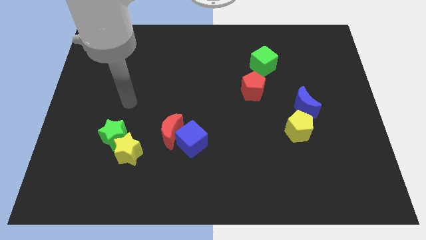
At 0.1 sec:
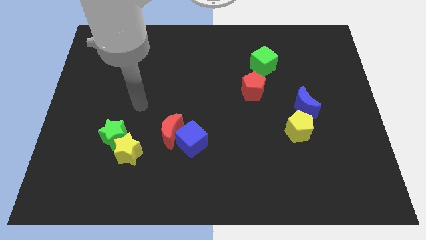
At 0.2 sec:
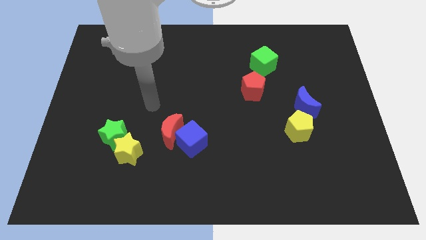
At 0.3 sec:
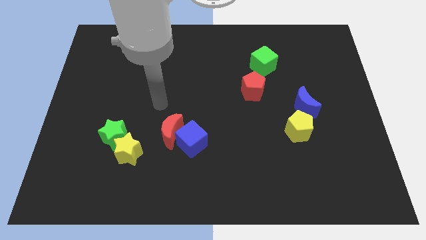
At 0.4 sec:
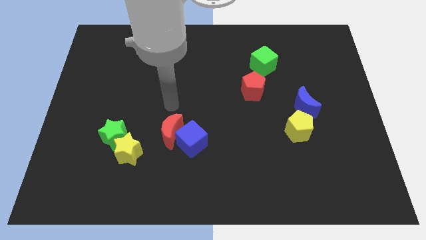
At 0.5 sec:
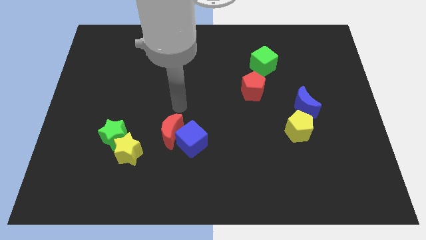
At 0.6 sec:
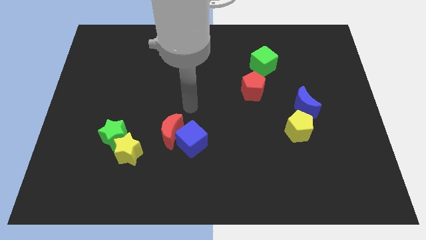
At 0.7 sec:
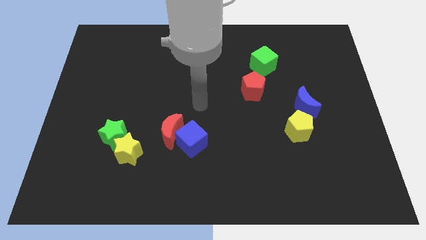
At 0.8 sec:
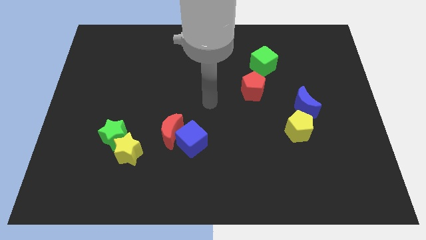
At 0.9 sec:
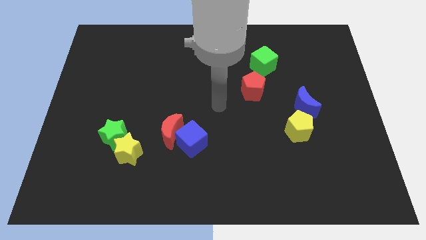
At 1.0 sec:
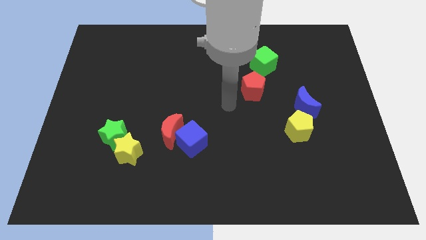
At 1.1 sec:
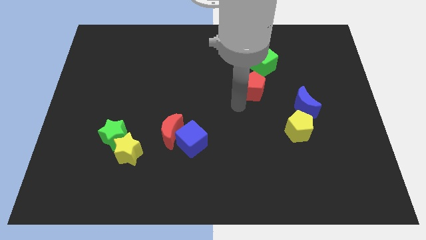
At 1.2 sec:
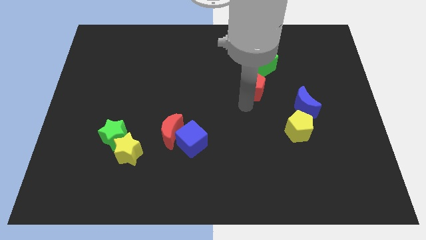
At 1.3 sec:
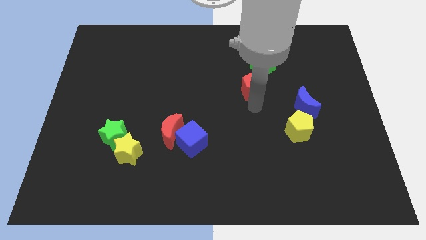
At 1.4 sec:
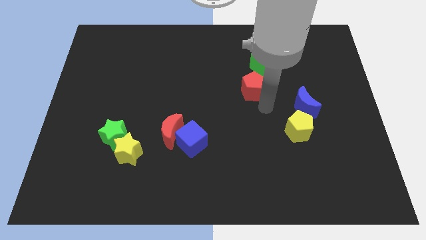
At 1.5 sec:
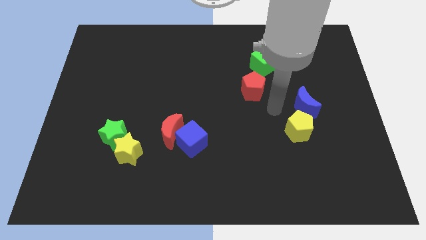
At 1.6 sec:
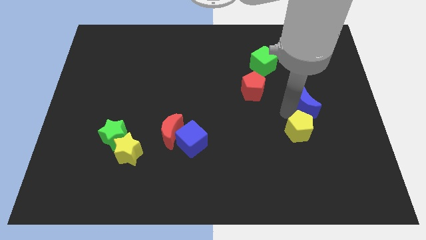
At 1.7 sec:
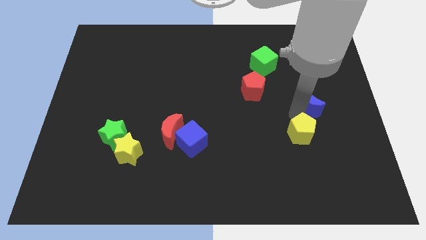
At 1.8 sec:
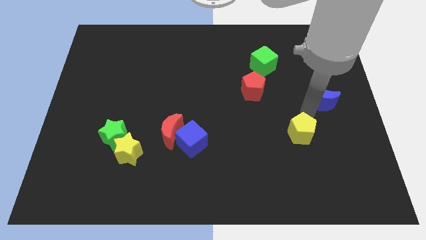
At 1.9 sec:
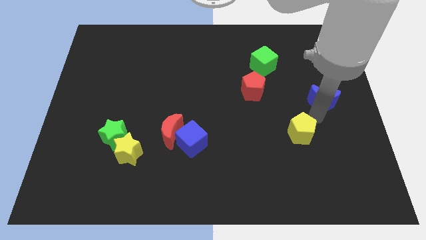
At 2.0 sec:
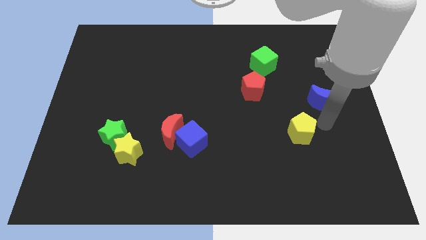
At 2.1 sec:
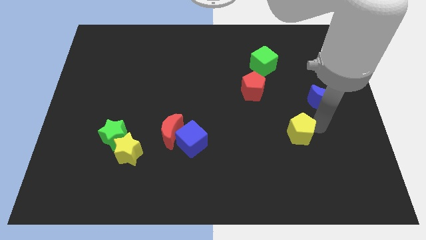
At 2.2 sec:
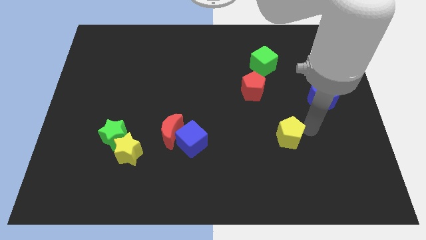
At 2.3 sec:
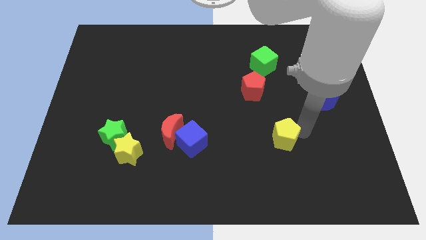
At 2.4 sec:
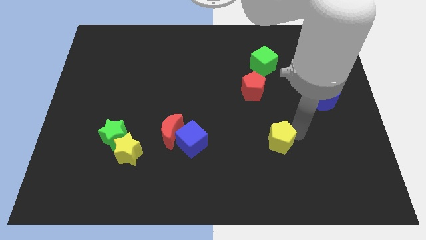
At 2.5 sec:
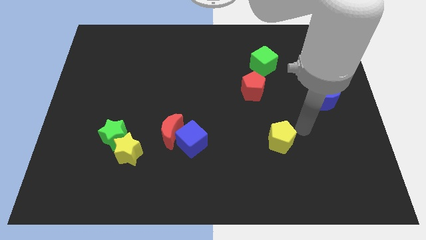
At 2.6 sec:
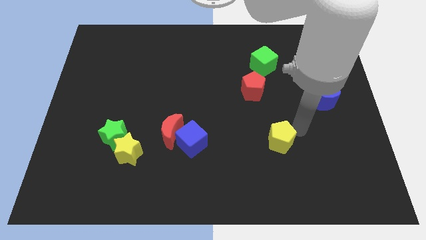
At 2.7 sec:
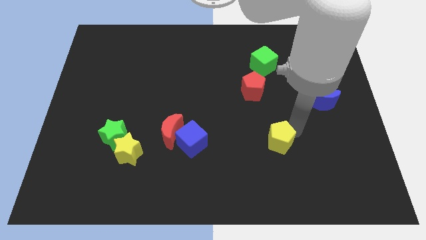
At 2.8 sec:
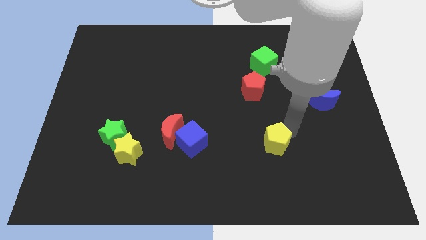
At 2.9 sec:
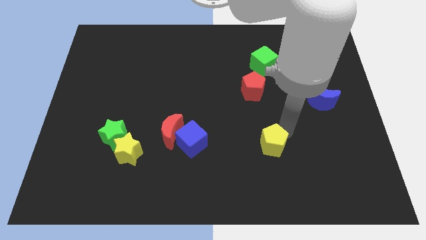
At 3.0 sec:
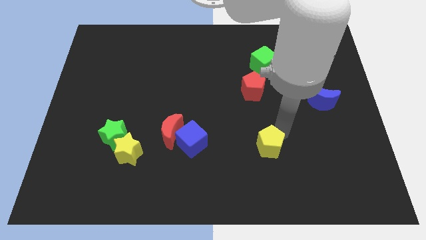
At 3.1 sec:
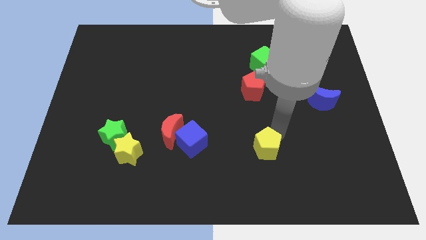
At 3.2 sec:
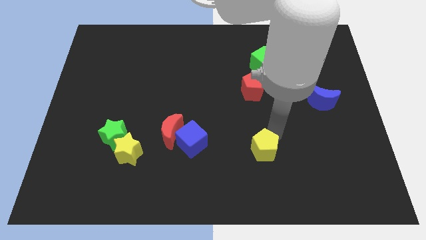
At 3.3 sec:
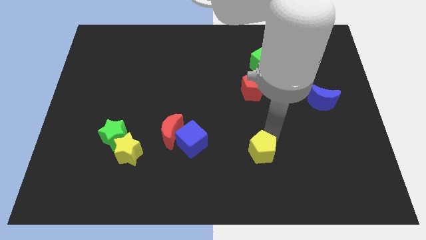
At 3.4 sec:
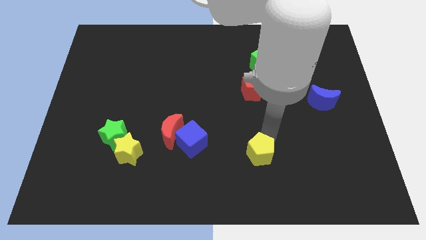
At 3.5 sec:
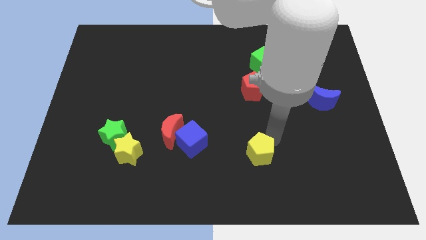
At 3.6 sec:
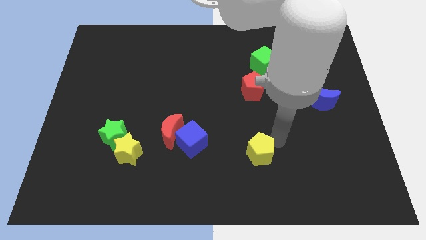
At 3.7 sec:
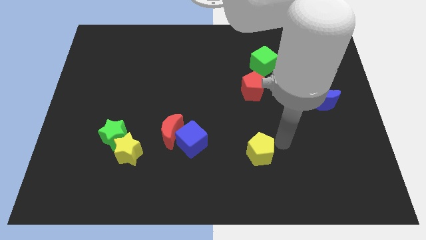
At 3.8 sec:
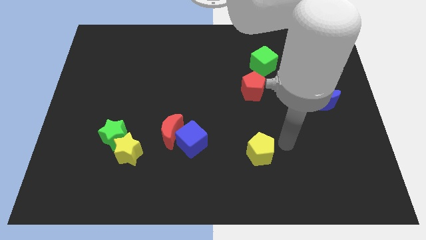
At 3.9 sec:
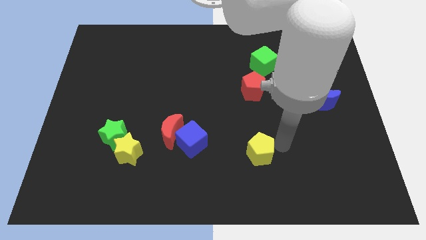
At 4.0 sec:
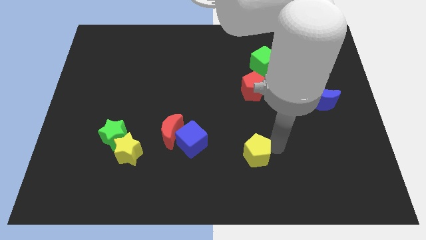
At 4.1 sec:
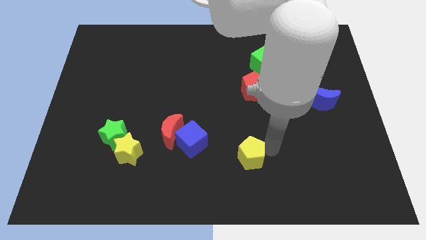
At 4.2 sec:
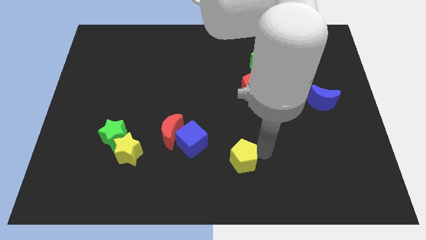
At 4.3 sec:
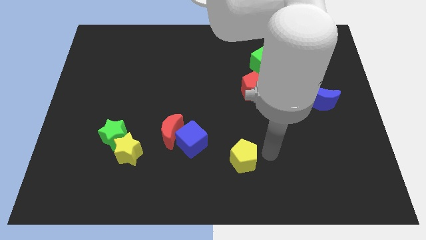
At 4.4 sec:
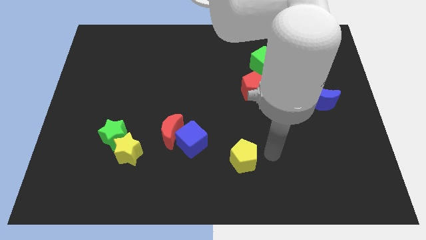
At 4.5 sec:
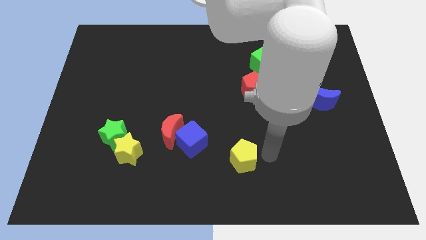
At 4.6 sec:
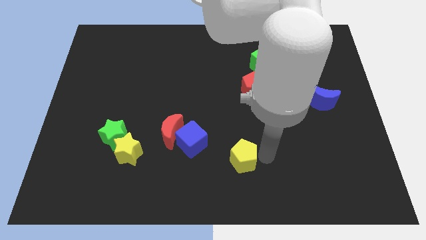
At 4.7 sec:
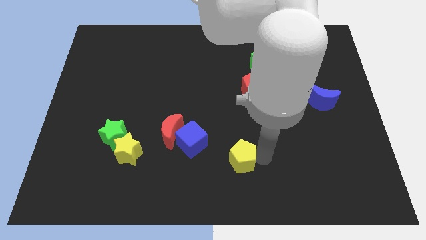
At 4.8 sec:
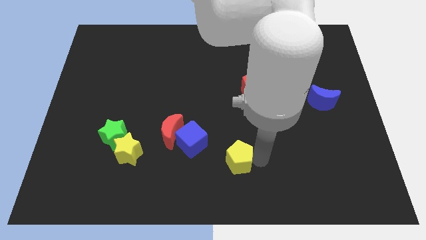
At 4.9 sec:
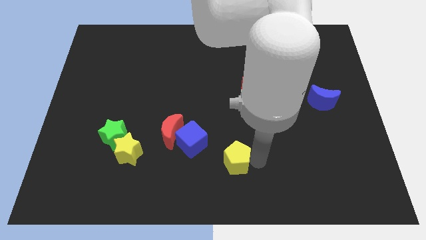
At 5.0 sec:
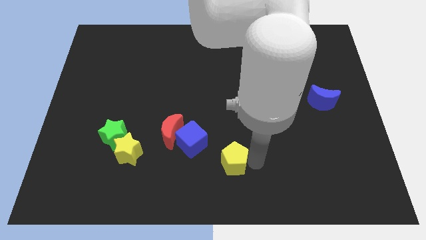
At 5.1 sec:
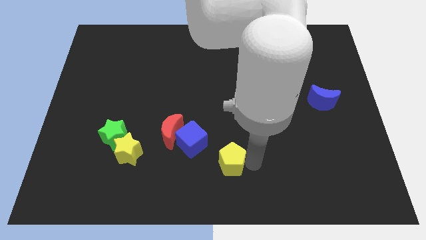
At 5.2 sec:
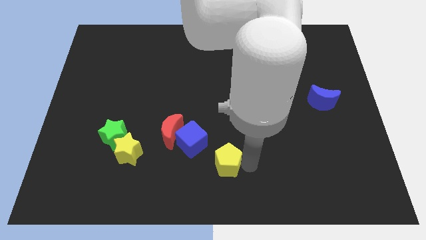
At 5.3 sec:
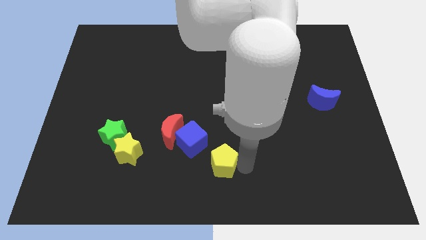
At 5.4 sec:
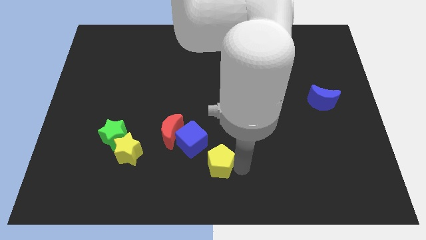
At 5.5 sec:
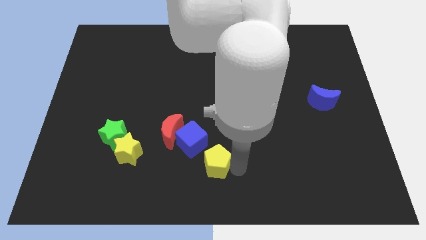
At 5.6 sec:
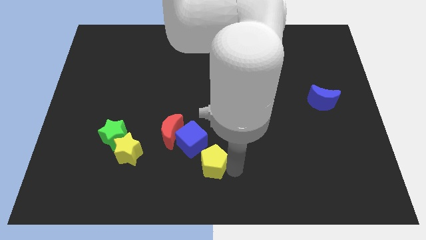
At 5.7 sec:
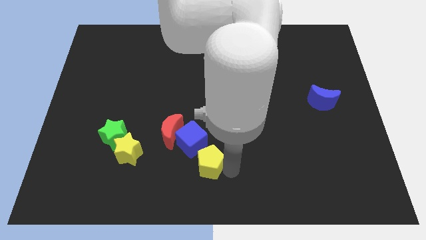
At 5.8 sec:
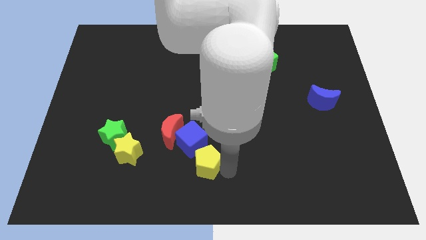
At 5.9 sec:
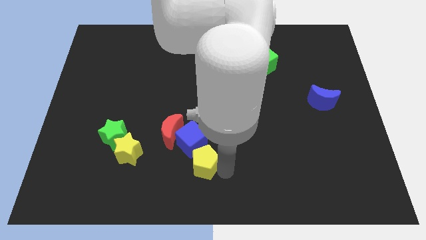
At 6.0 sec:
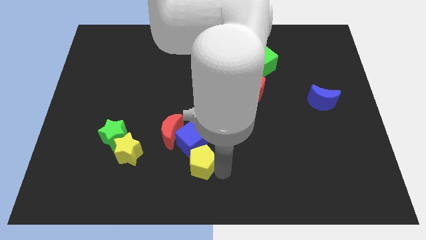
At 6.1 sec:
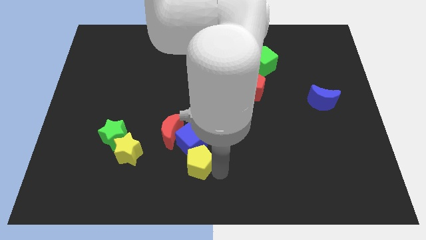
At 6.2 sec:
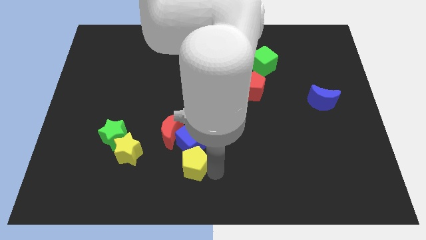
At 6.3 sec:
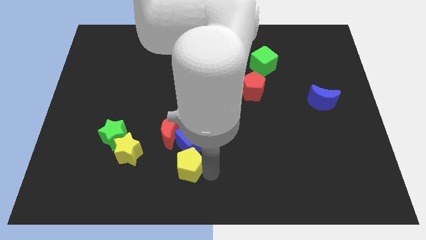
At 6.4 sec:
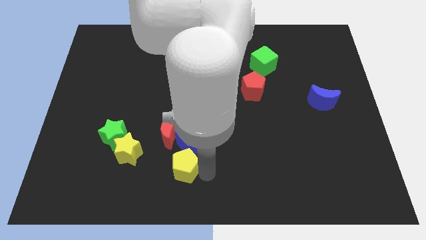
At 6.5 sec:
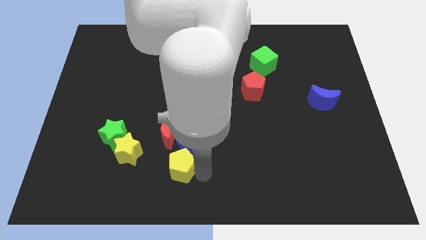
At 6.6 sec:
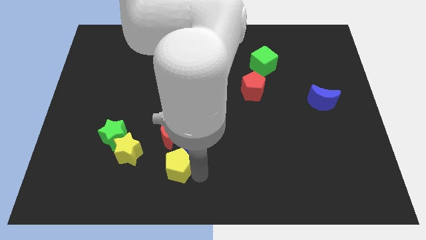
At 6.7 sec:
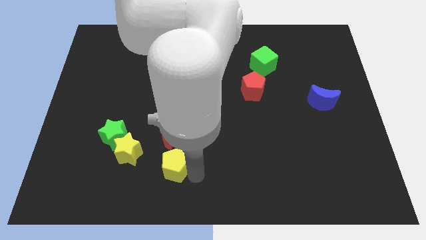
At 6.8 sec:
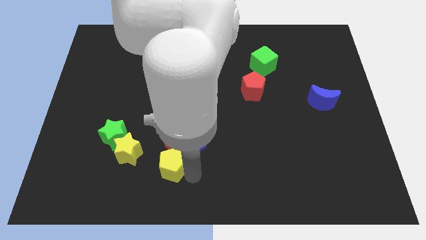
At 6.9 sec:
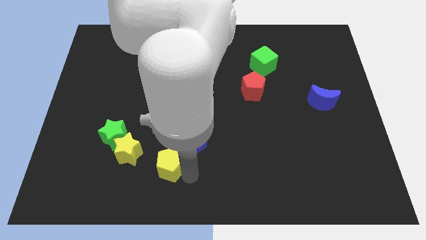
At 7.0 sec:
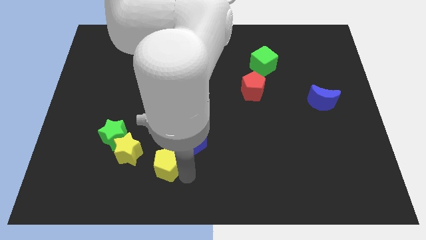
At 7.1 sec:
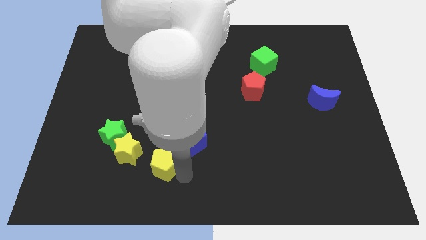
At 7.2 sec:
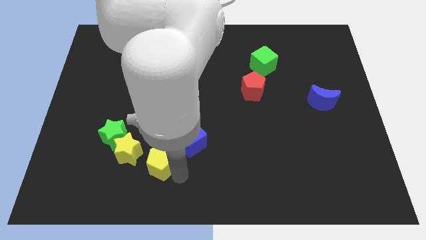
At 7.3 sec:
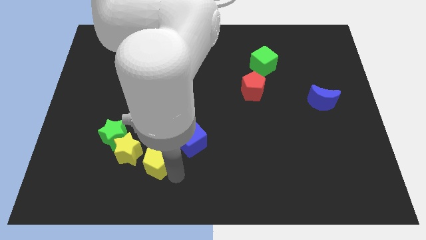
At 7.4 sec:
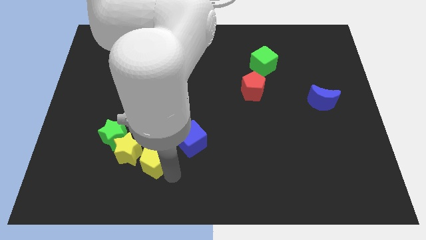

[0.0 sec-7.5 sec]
push the yellow pentagon to the yellow star
